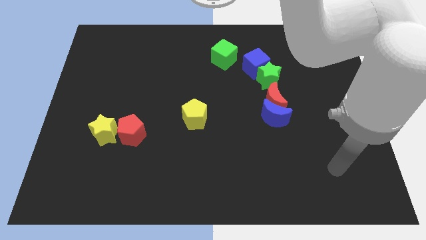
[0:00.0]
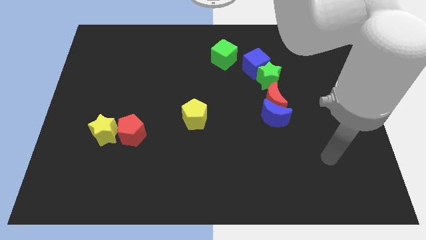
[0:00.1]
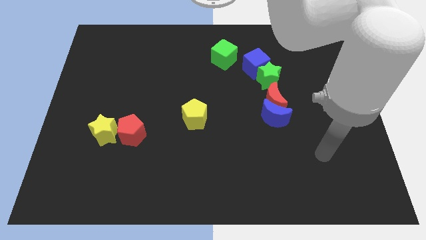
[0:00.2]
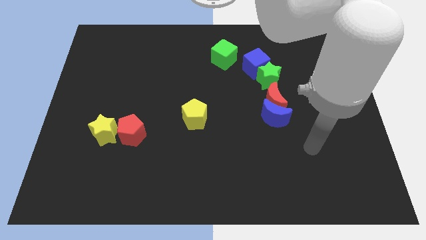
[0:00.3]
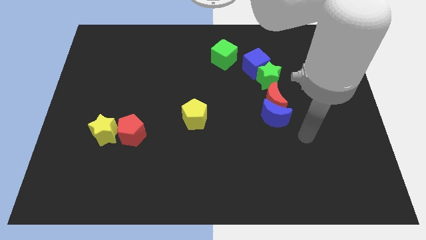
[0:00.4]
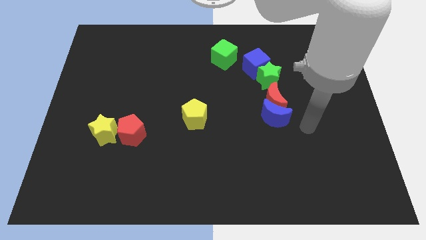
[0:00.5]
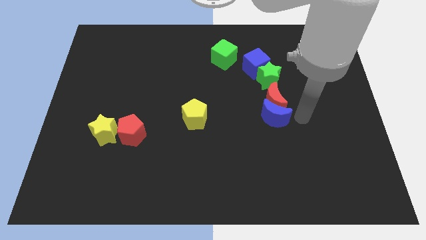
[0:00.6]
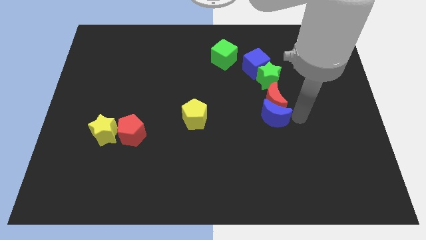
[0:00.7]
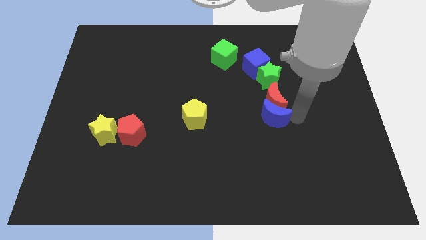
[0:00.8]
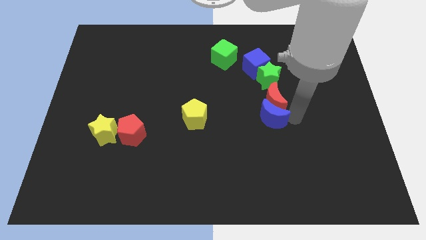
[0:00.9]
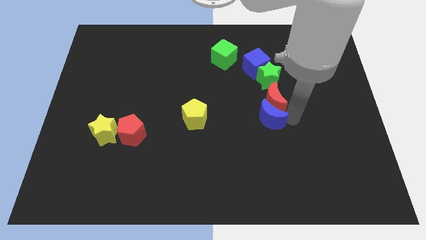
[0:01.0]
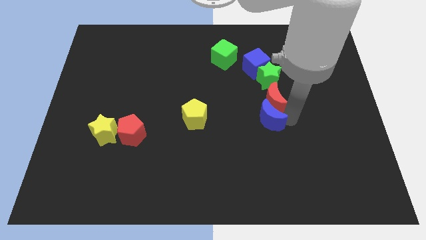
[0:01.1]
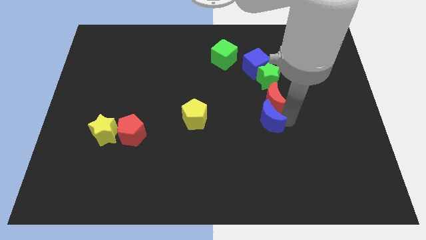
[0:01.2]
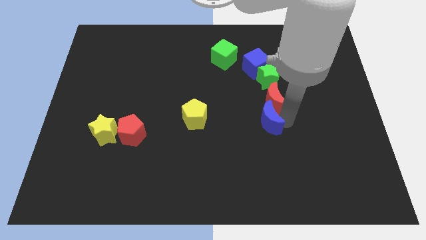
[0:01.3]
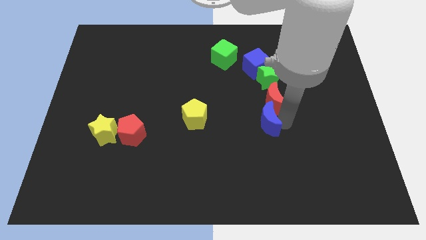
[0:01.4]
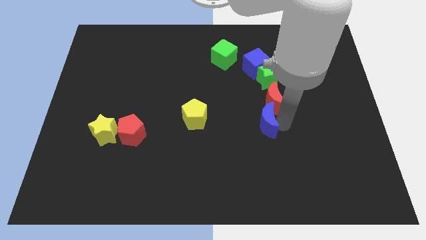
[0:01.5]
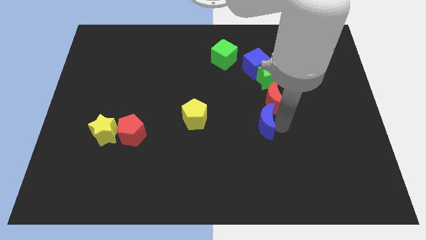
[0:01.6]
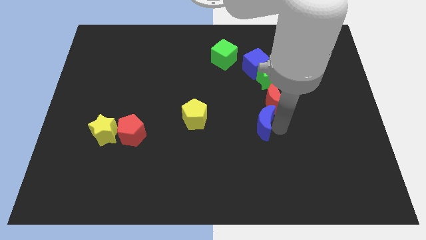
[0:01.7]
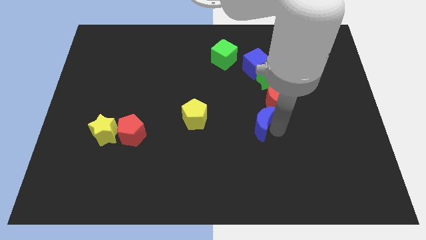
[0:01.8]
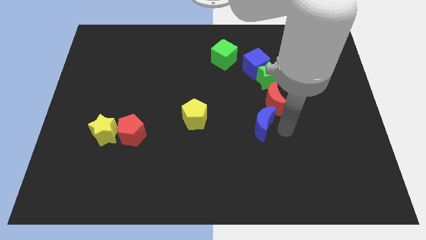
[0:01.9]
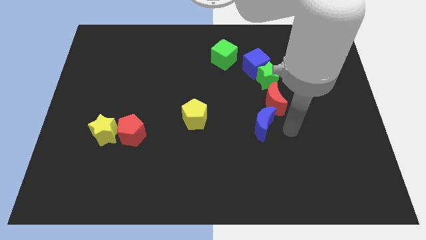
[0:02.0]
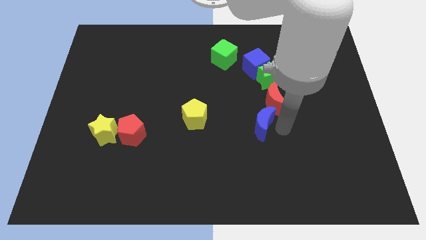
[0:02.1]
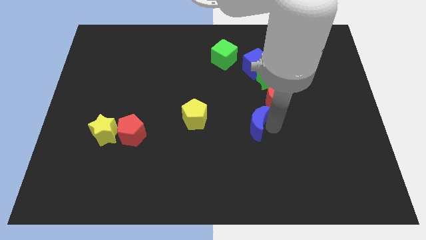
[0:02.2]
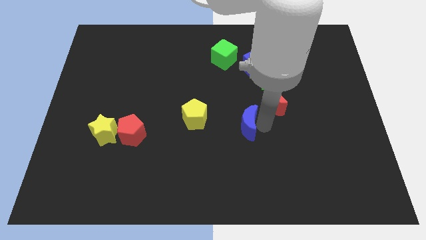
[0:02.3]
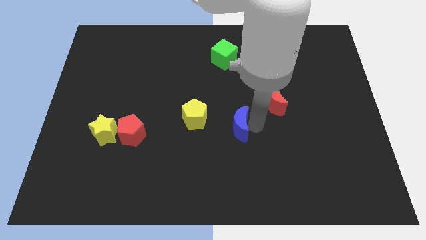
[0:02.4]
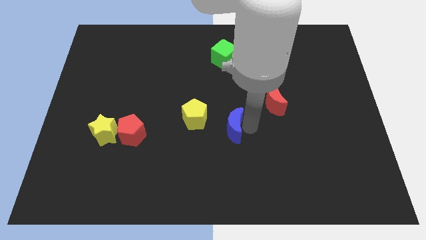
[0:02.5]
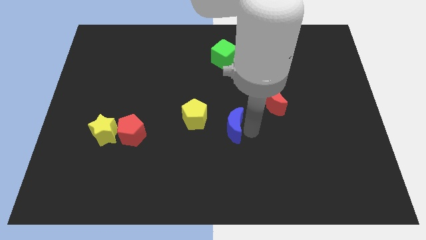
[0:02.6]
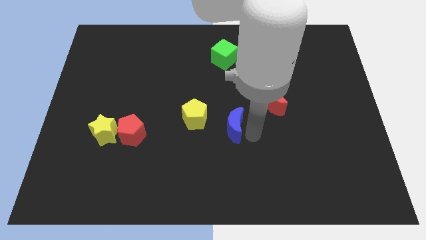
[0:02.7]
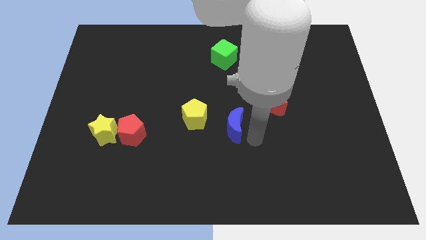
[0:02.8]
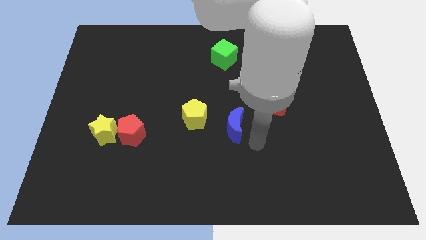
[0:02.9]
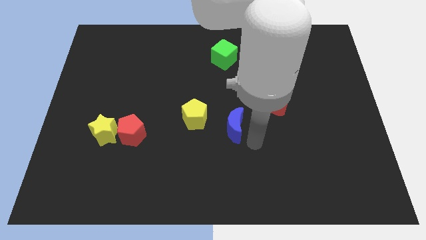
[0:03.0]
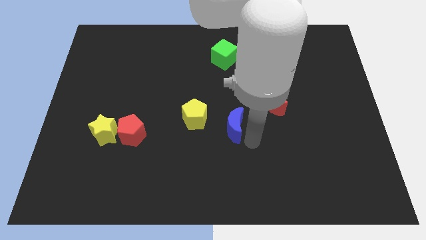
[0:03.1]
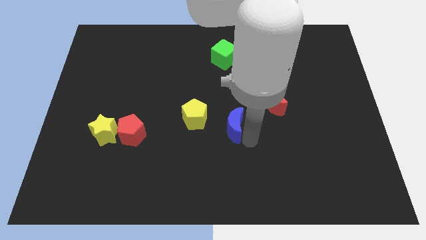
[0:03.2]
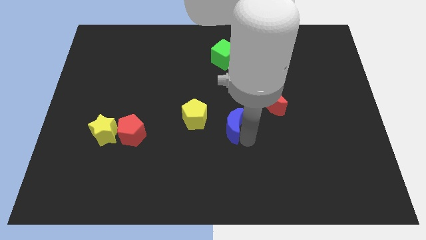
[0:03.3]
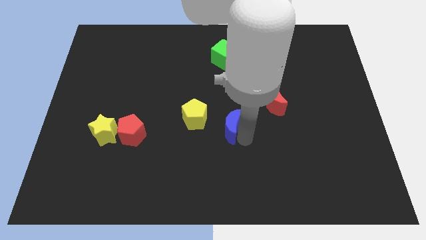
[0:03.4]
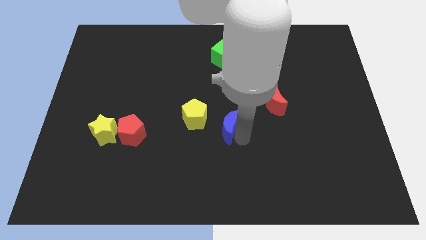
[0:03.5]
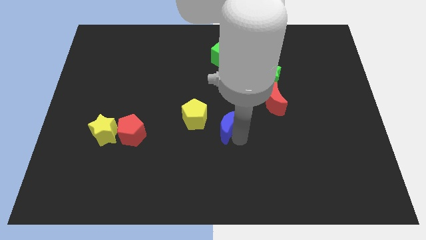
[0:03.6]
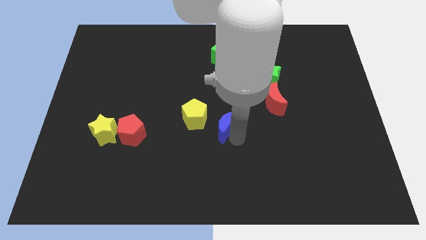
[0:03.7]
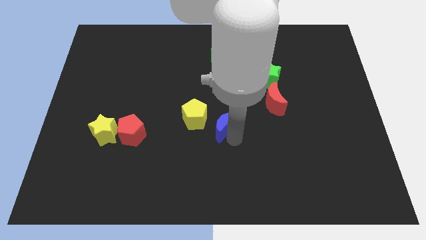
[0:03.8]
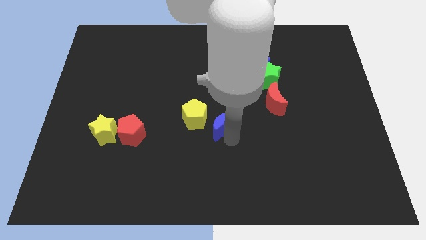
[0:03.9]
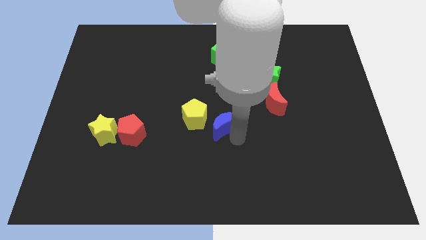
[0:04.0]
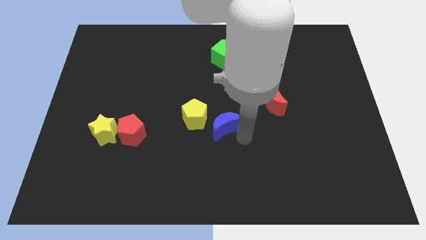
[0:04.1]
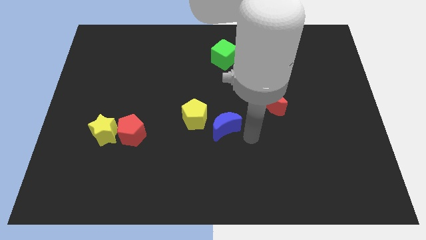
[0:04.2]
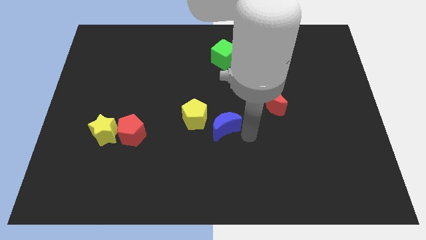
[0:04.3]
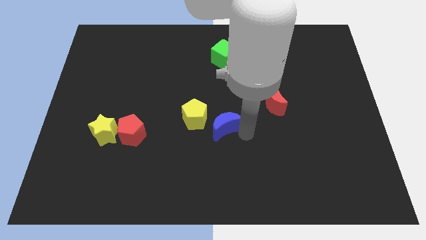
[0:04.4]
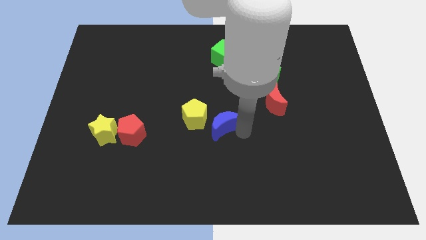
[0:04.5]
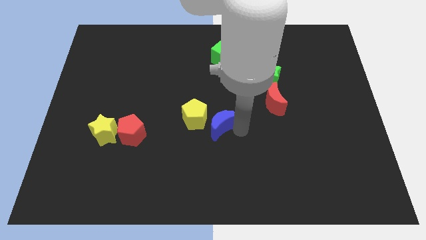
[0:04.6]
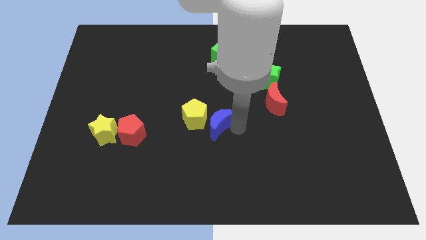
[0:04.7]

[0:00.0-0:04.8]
move the blue moon next to the yellow pentagon

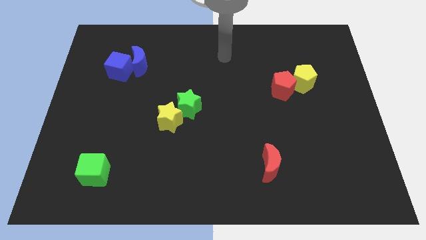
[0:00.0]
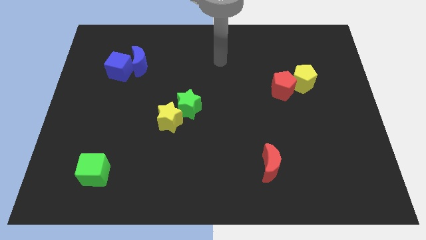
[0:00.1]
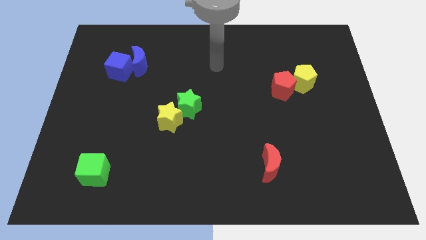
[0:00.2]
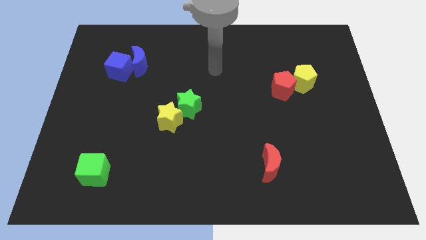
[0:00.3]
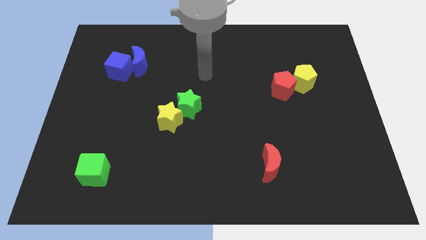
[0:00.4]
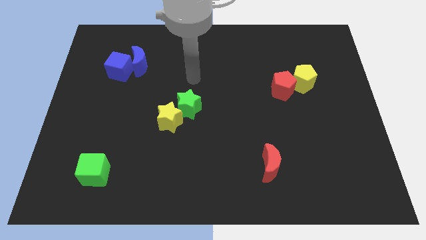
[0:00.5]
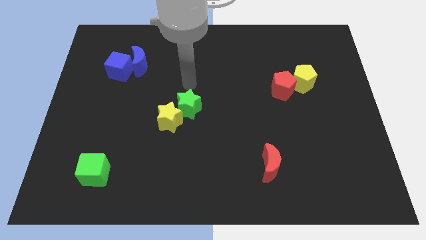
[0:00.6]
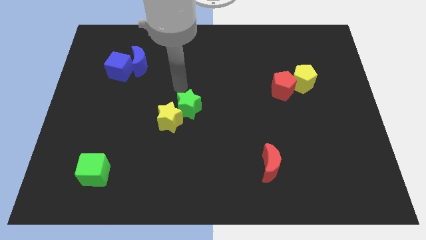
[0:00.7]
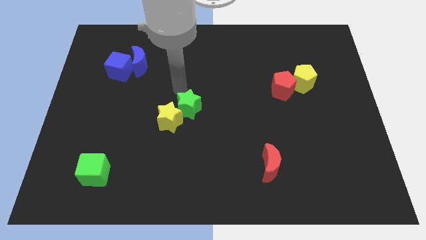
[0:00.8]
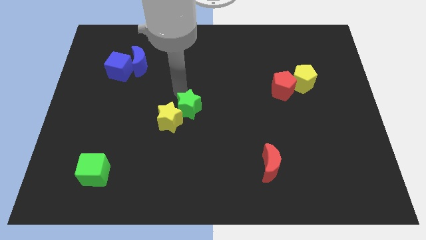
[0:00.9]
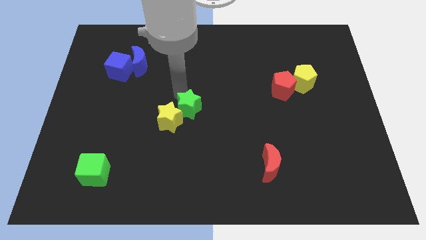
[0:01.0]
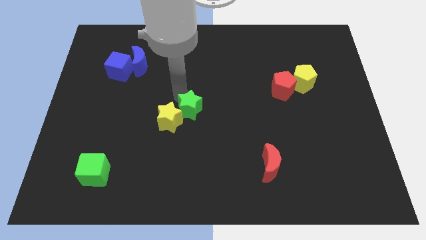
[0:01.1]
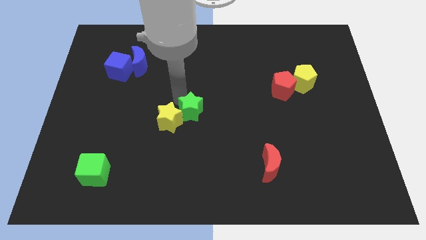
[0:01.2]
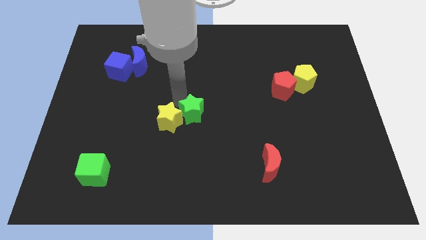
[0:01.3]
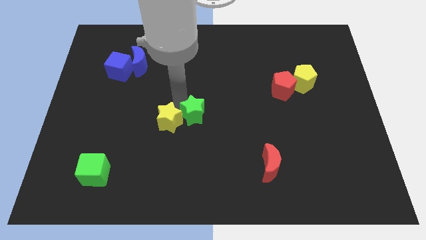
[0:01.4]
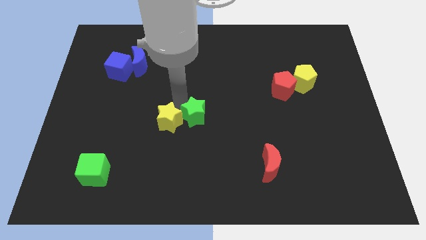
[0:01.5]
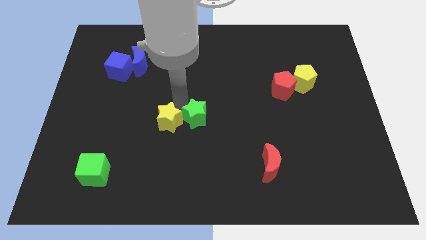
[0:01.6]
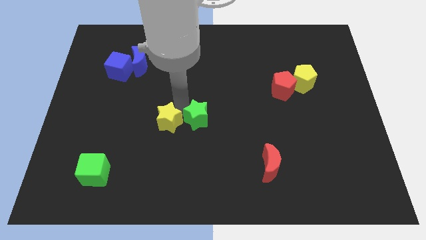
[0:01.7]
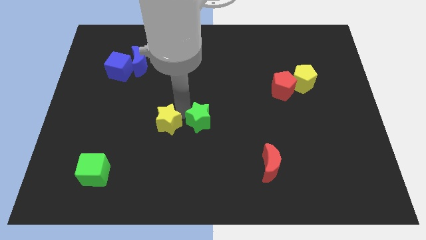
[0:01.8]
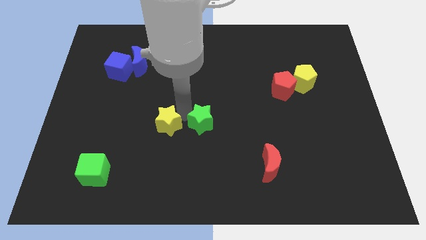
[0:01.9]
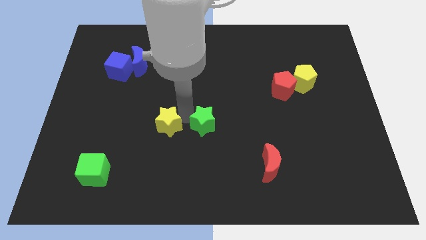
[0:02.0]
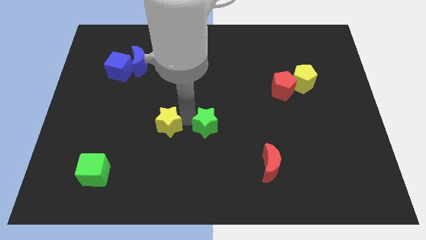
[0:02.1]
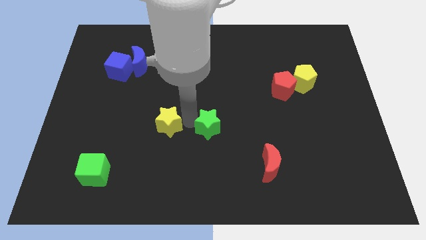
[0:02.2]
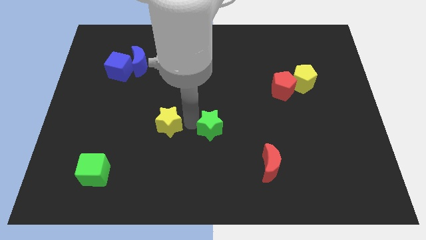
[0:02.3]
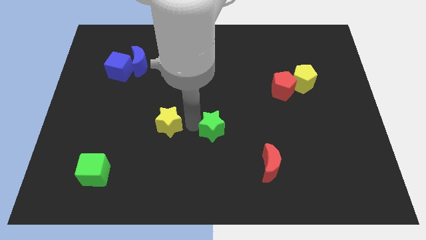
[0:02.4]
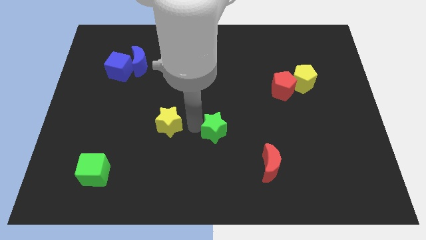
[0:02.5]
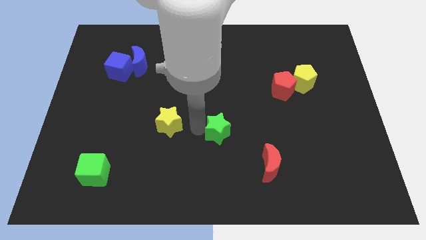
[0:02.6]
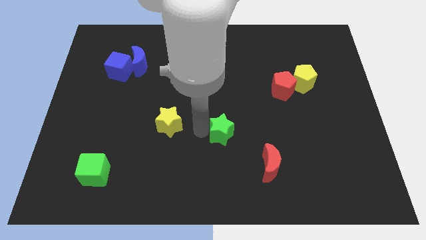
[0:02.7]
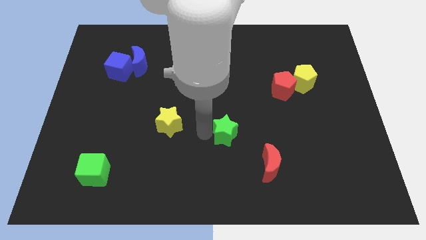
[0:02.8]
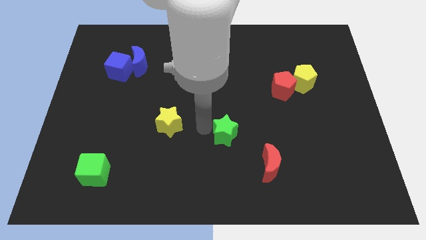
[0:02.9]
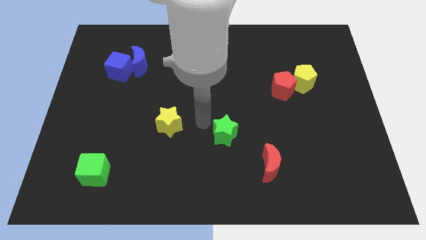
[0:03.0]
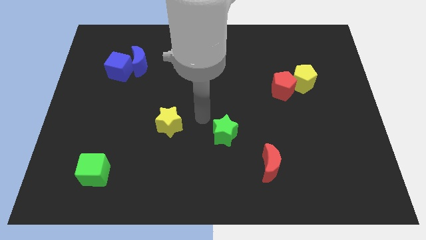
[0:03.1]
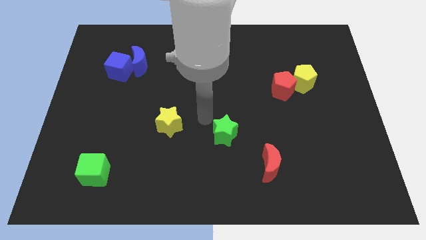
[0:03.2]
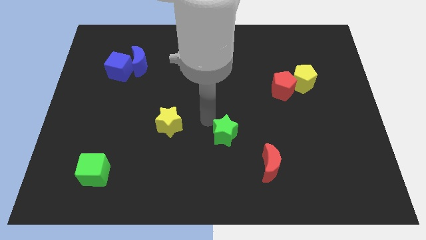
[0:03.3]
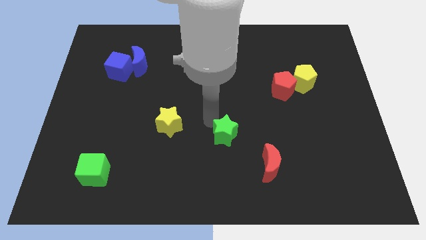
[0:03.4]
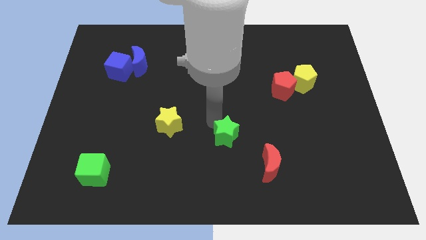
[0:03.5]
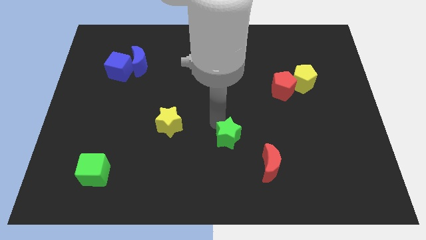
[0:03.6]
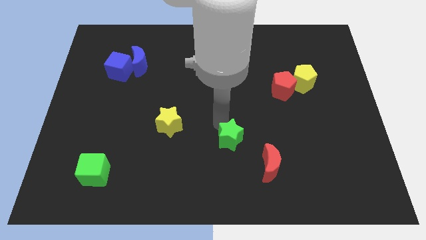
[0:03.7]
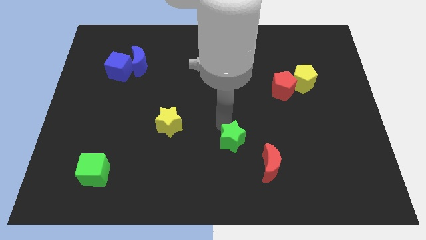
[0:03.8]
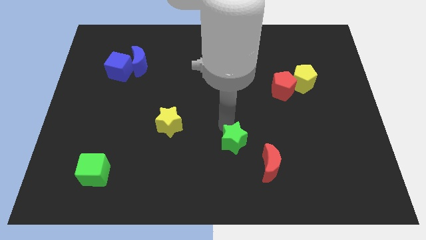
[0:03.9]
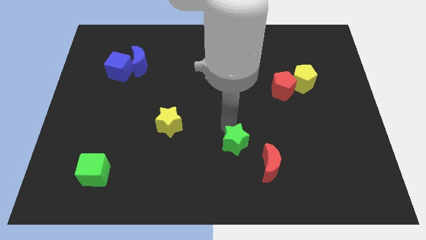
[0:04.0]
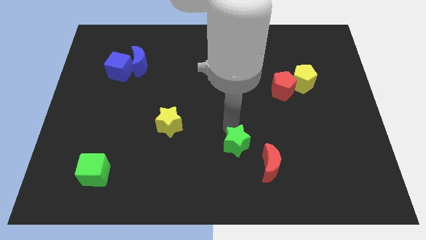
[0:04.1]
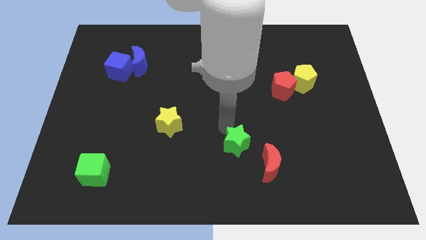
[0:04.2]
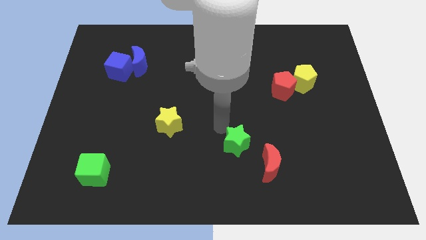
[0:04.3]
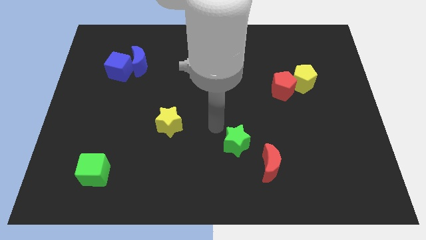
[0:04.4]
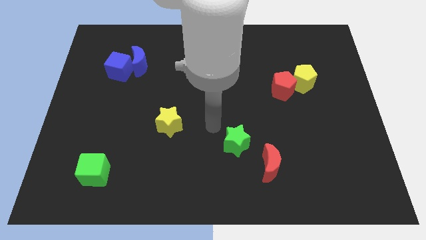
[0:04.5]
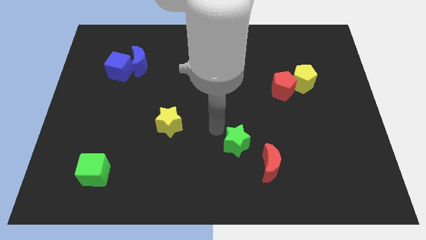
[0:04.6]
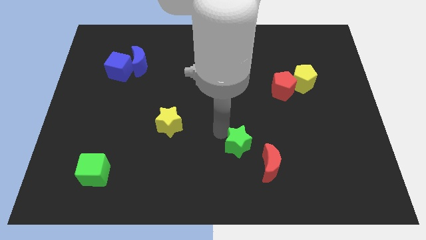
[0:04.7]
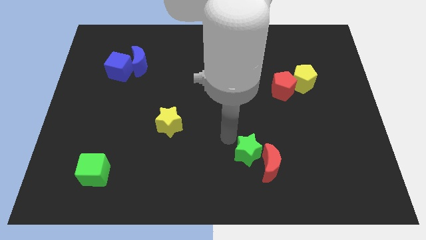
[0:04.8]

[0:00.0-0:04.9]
push the green star towards the red moon
